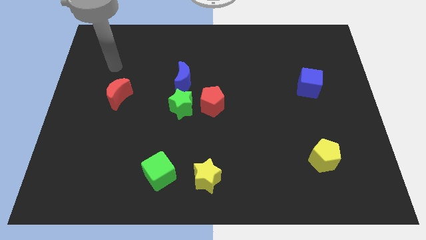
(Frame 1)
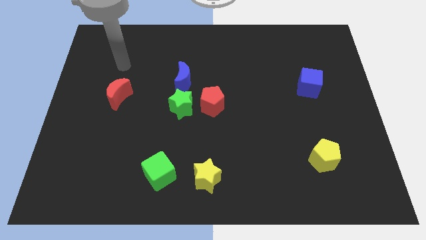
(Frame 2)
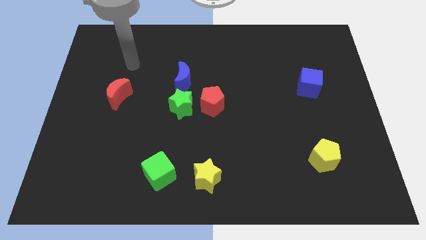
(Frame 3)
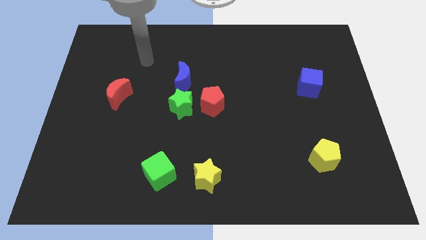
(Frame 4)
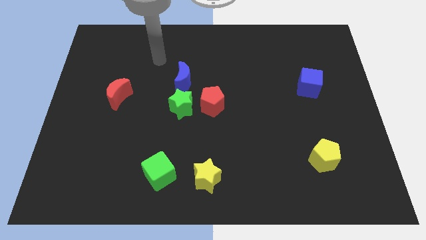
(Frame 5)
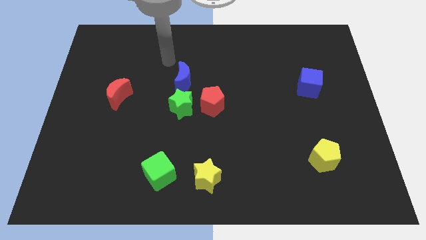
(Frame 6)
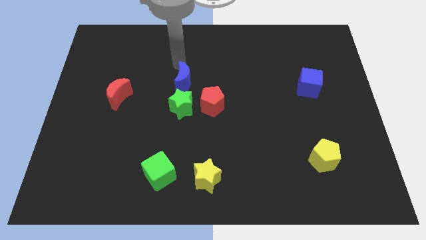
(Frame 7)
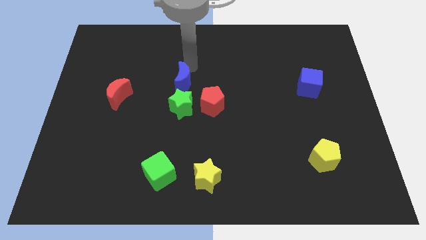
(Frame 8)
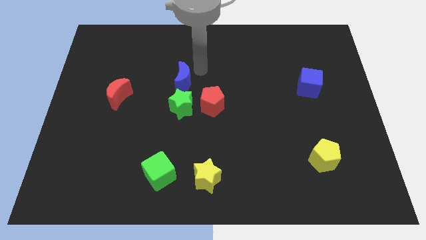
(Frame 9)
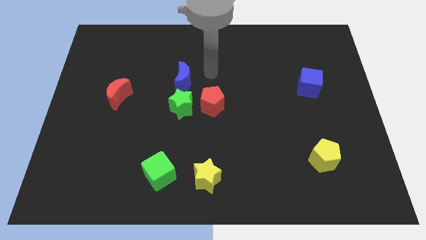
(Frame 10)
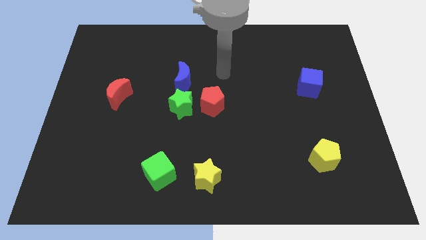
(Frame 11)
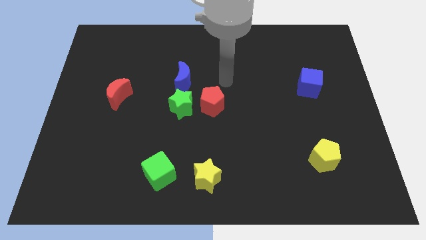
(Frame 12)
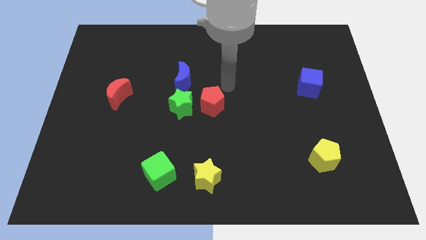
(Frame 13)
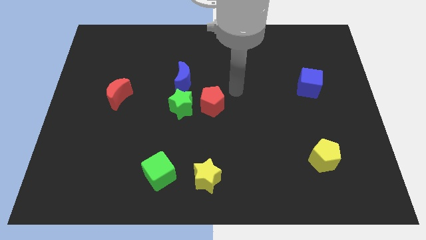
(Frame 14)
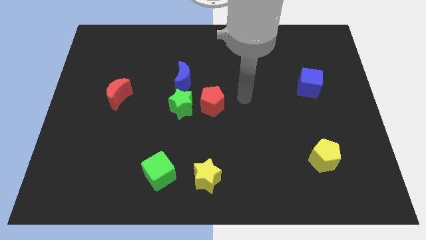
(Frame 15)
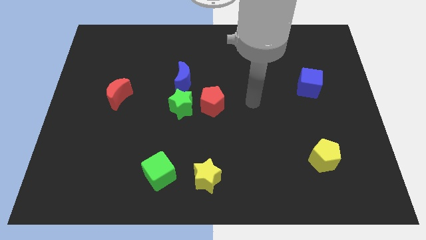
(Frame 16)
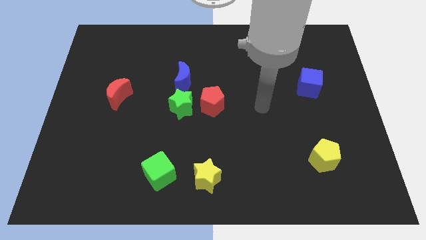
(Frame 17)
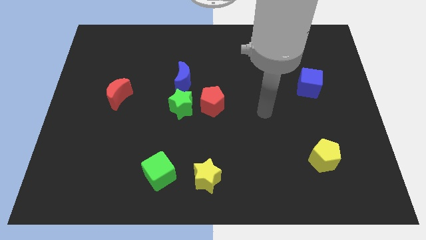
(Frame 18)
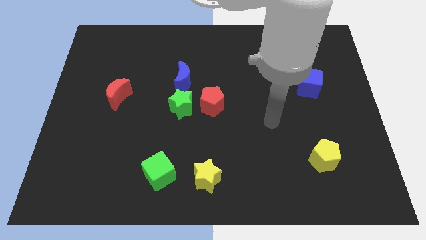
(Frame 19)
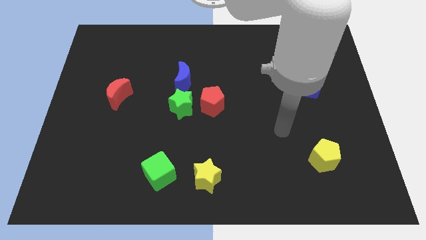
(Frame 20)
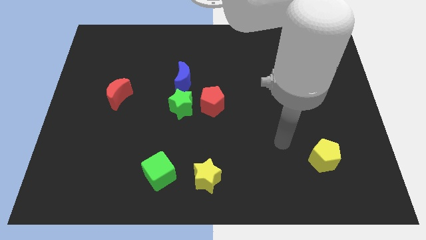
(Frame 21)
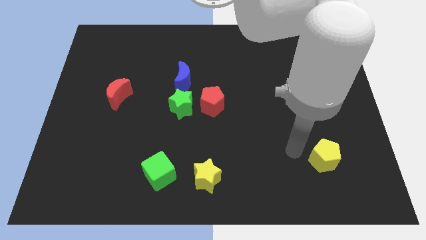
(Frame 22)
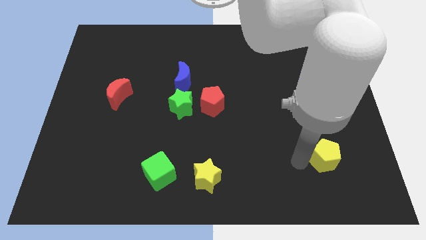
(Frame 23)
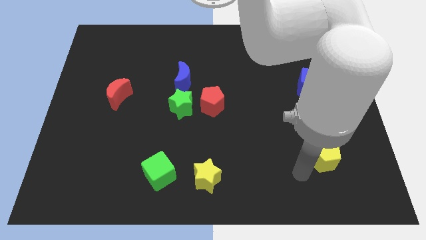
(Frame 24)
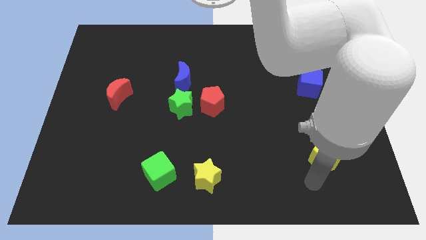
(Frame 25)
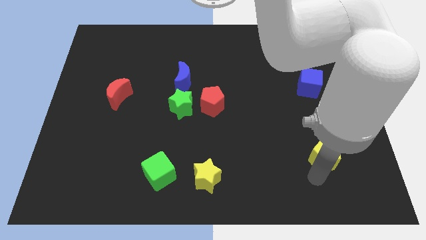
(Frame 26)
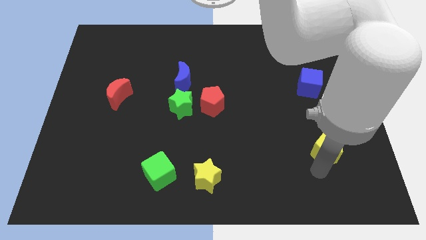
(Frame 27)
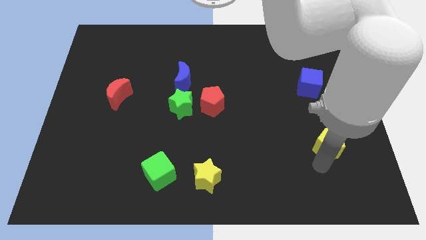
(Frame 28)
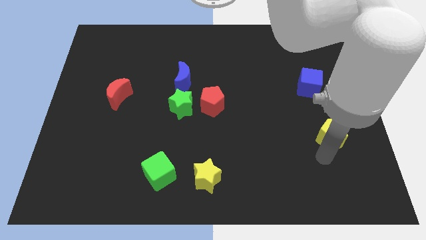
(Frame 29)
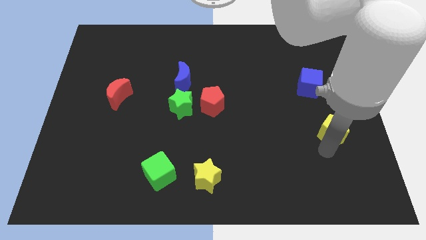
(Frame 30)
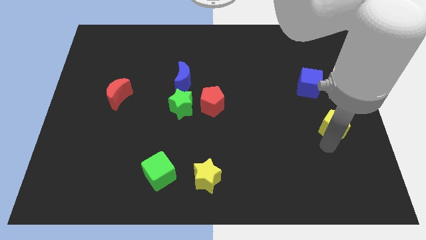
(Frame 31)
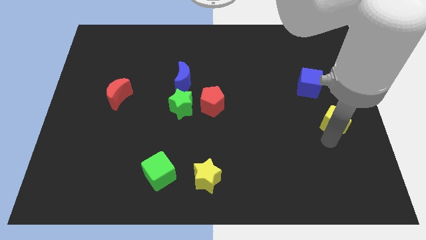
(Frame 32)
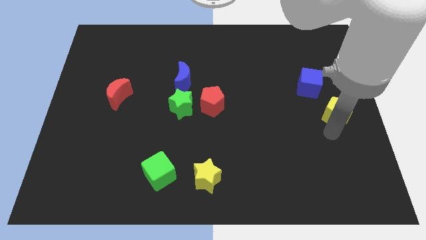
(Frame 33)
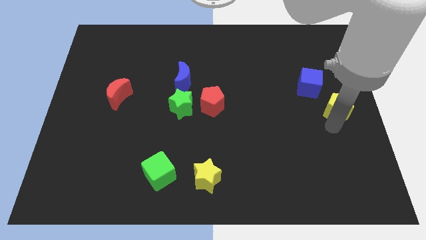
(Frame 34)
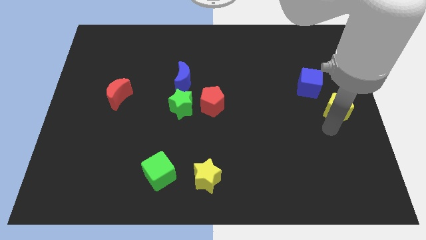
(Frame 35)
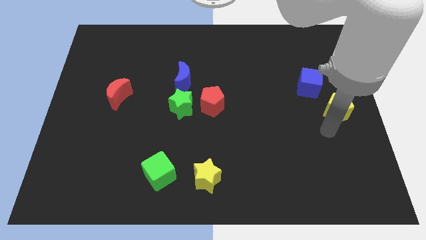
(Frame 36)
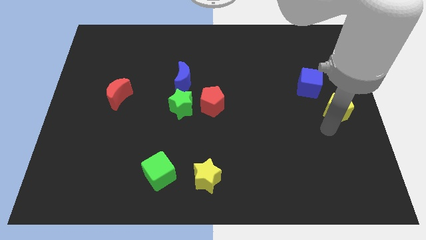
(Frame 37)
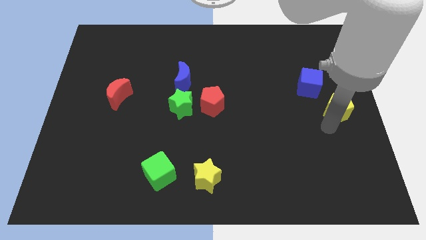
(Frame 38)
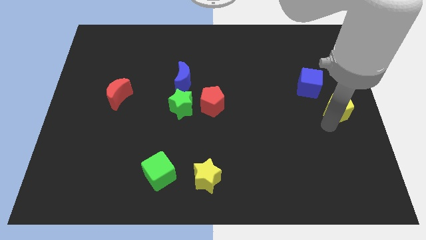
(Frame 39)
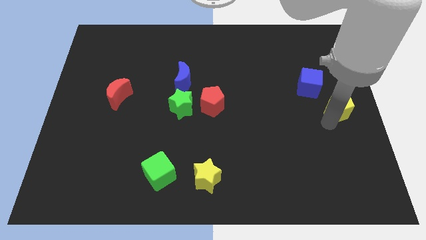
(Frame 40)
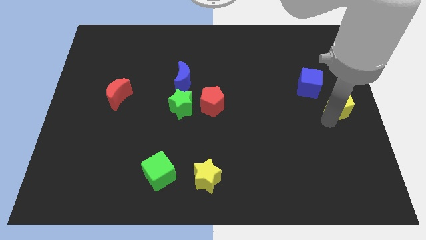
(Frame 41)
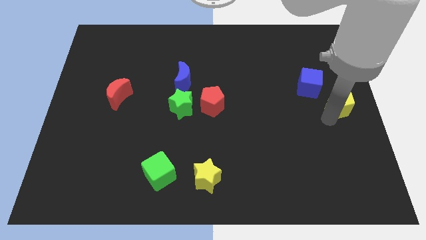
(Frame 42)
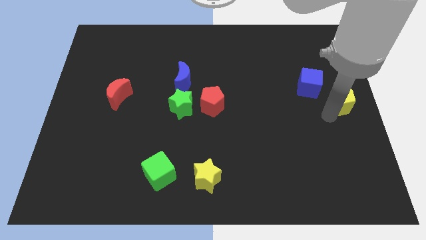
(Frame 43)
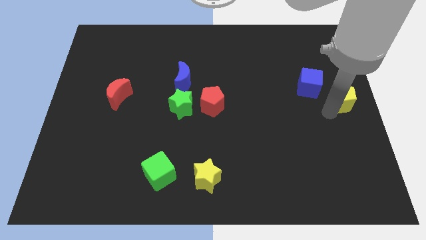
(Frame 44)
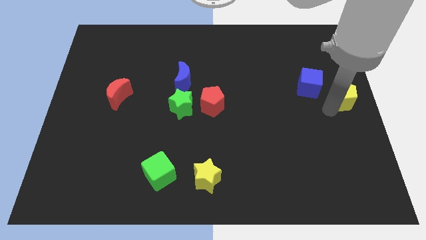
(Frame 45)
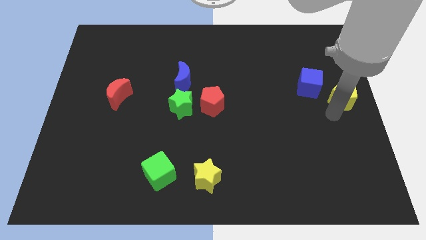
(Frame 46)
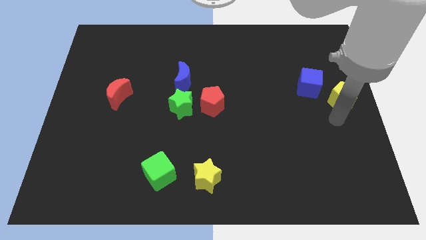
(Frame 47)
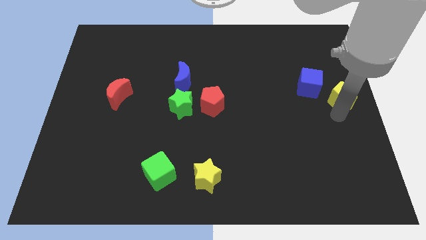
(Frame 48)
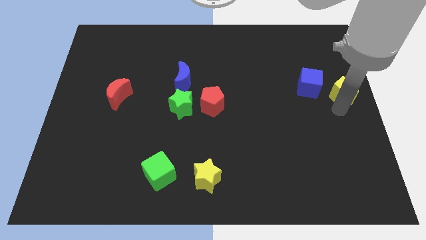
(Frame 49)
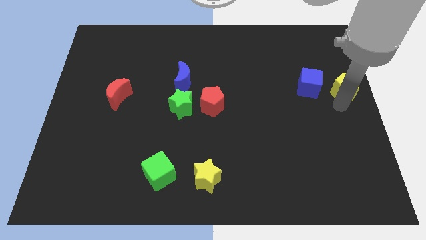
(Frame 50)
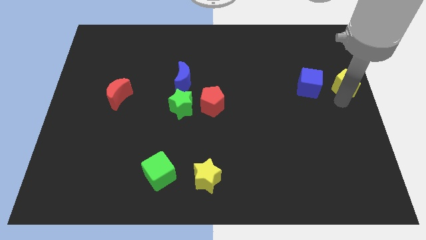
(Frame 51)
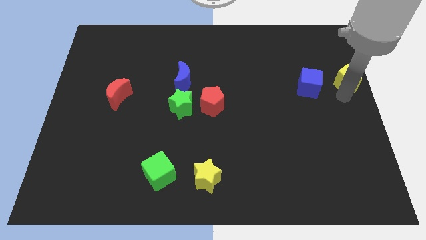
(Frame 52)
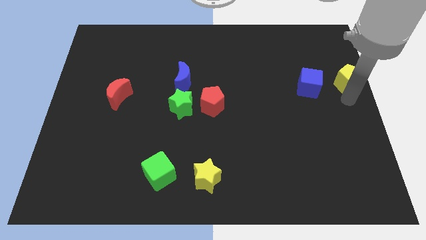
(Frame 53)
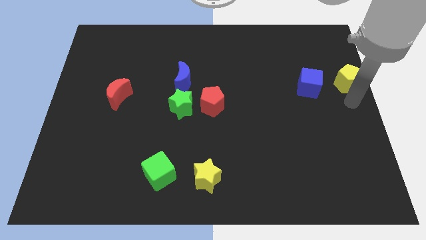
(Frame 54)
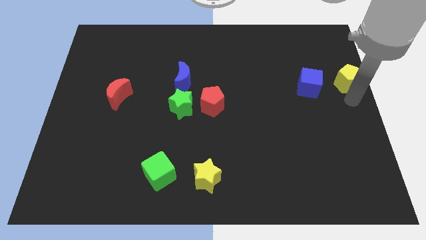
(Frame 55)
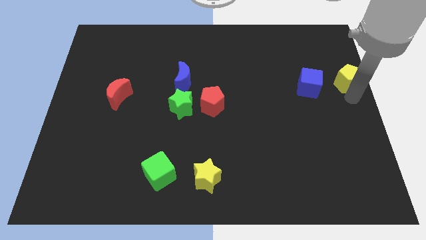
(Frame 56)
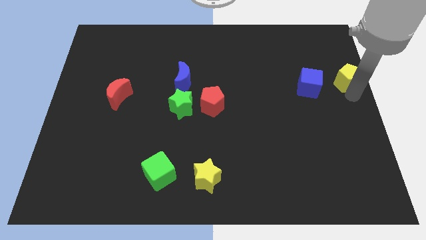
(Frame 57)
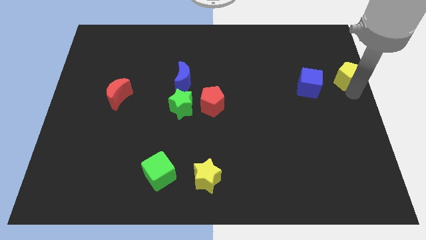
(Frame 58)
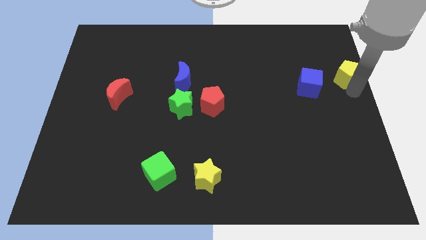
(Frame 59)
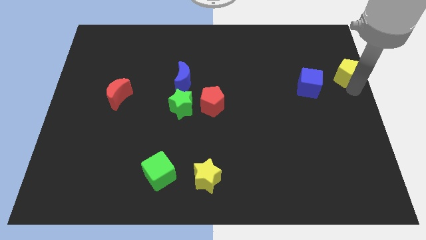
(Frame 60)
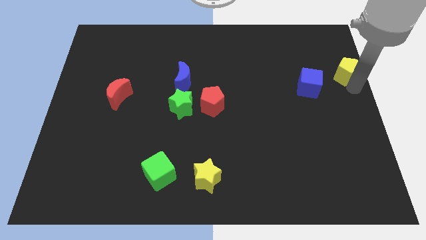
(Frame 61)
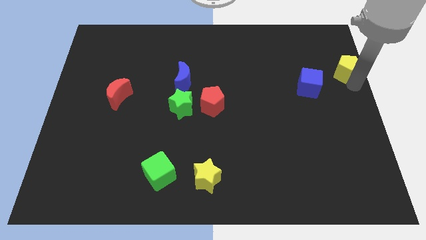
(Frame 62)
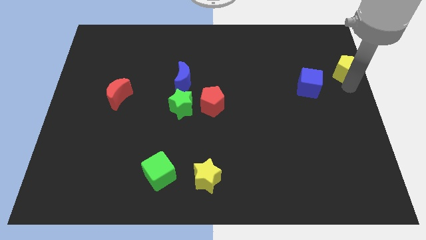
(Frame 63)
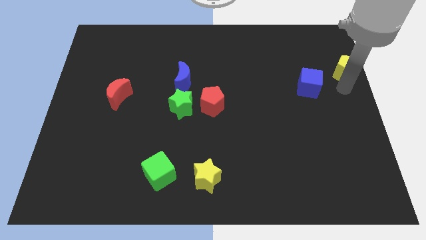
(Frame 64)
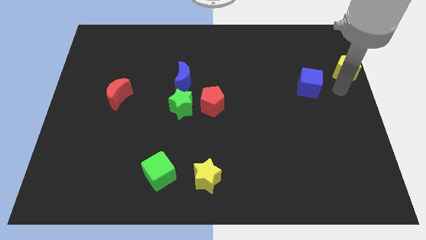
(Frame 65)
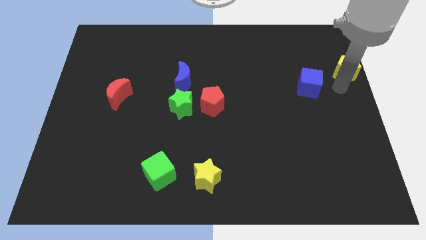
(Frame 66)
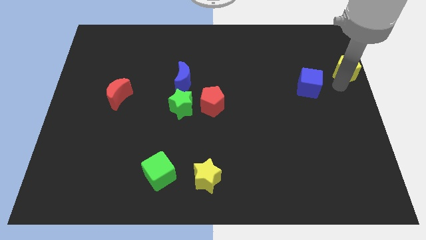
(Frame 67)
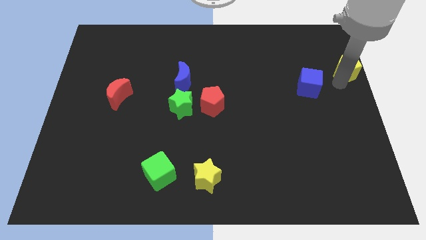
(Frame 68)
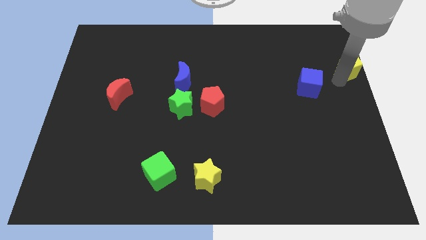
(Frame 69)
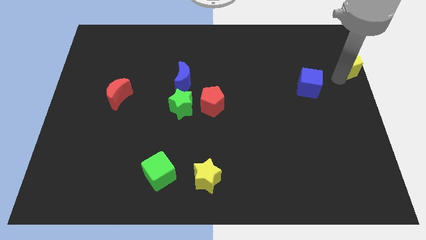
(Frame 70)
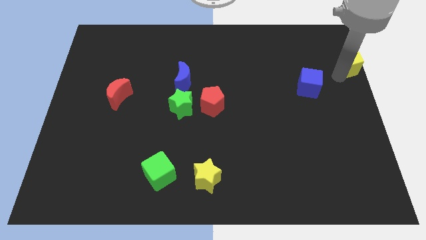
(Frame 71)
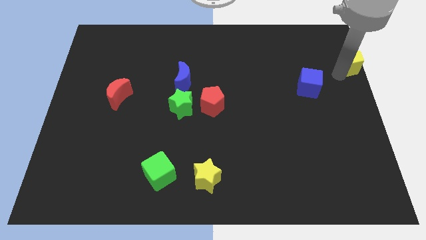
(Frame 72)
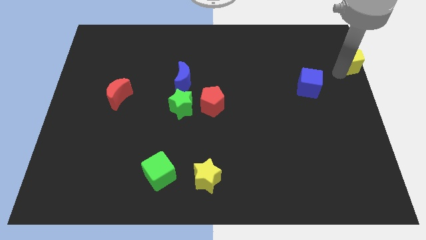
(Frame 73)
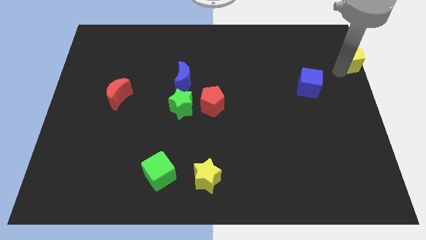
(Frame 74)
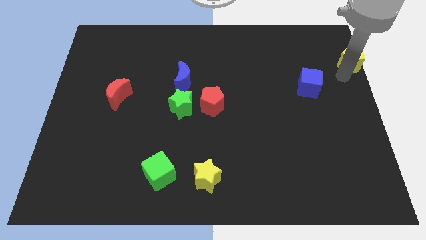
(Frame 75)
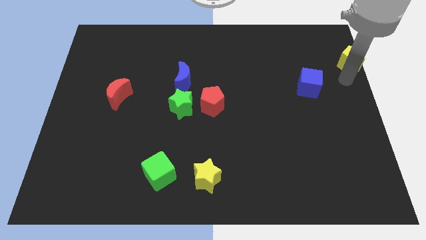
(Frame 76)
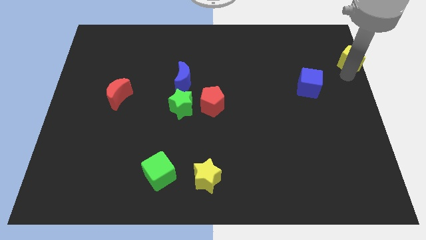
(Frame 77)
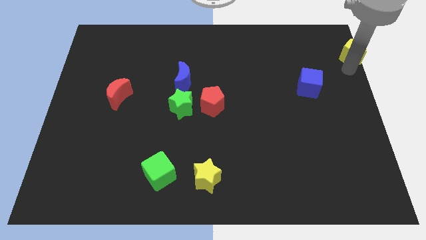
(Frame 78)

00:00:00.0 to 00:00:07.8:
move the yellow pentagon to the upper right corner
